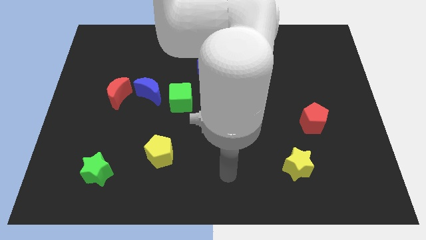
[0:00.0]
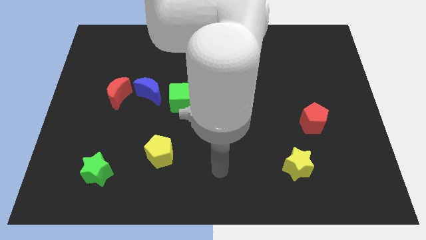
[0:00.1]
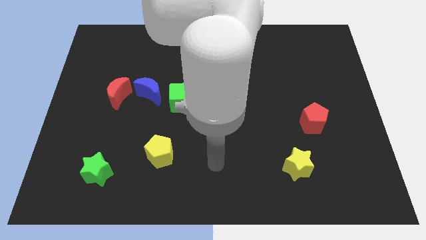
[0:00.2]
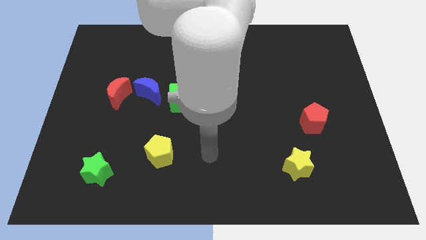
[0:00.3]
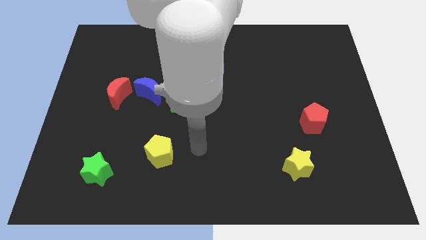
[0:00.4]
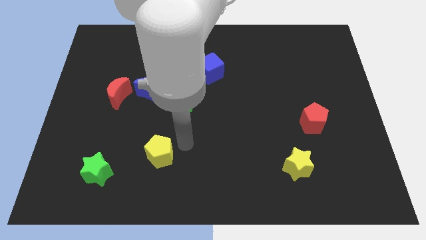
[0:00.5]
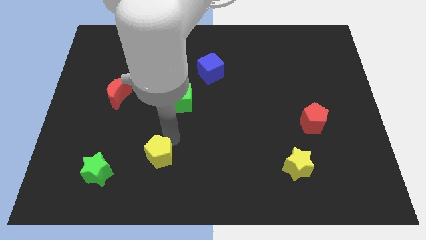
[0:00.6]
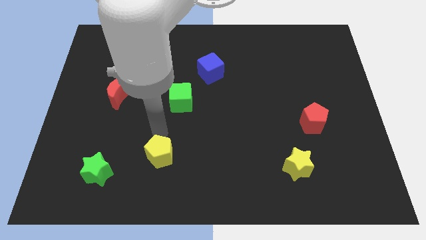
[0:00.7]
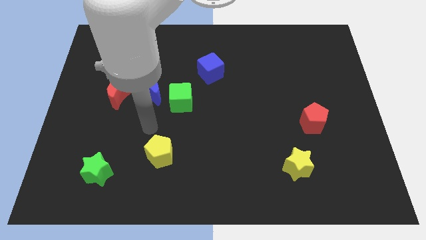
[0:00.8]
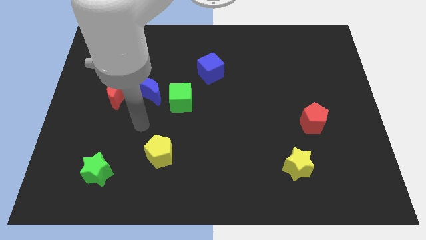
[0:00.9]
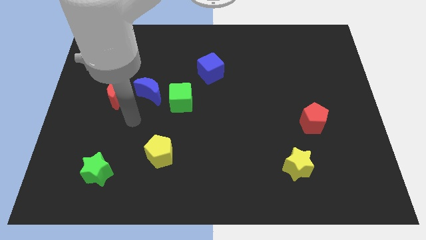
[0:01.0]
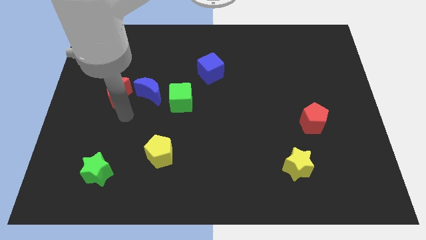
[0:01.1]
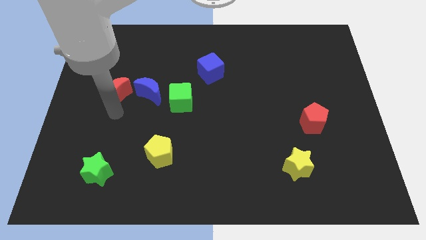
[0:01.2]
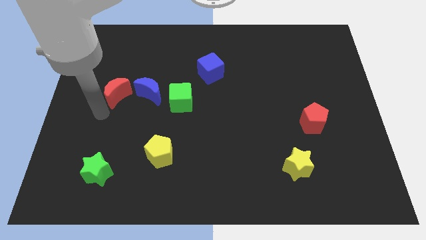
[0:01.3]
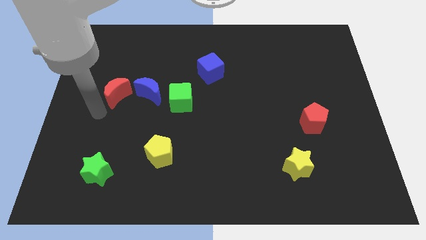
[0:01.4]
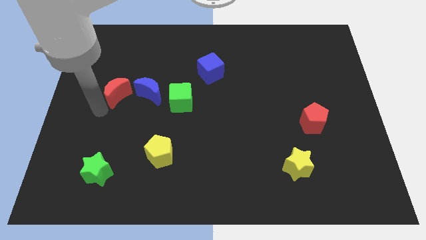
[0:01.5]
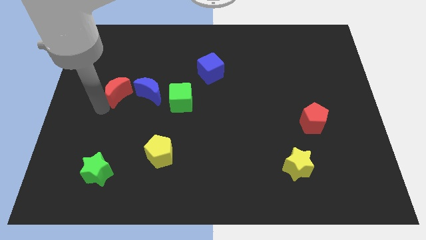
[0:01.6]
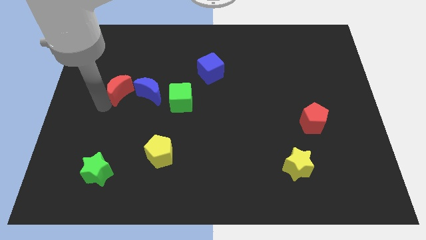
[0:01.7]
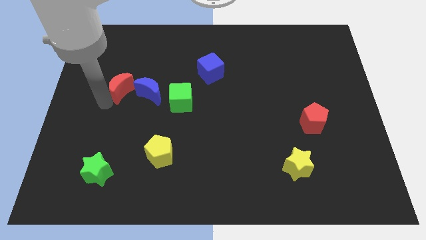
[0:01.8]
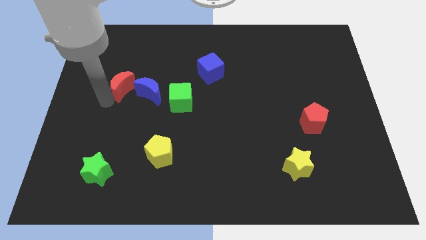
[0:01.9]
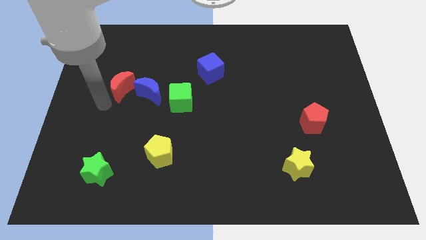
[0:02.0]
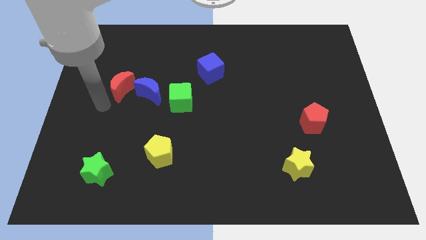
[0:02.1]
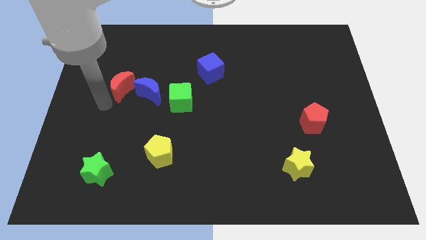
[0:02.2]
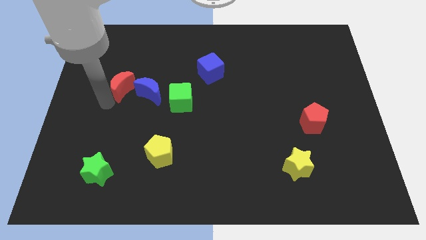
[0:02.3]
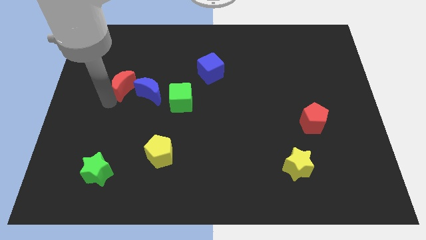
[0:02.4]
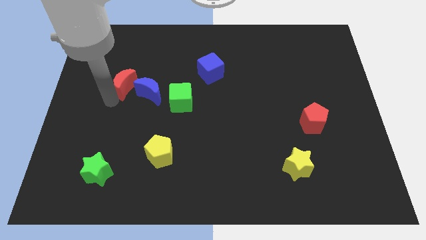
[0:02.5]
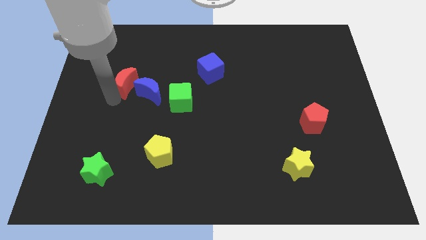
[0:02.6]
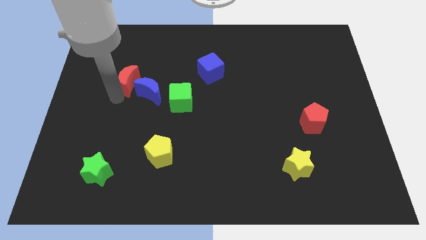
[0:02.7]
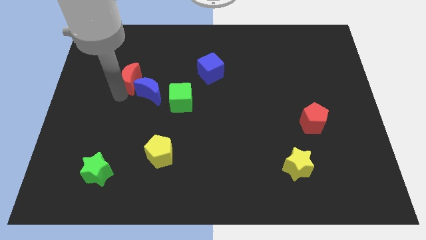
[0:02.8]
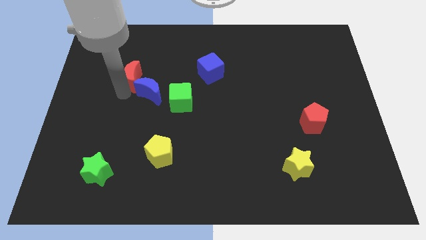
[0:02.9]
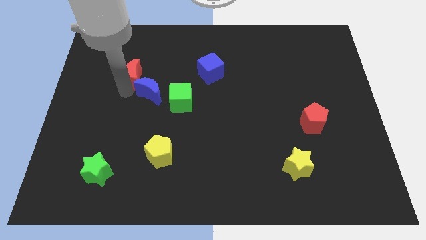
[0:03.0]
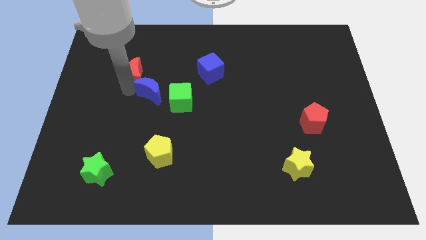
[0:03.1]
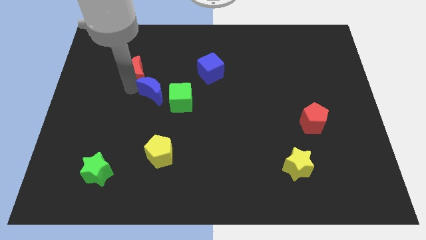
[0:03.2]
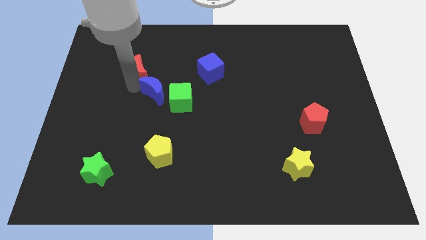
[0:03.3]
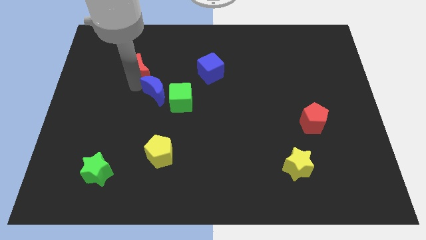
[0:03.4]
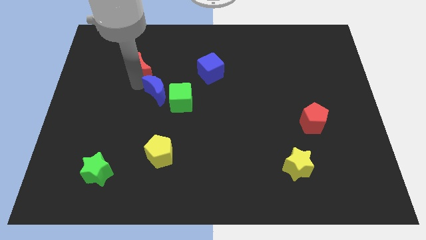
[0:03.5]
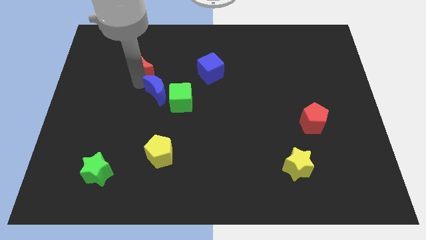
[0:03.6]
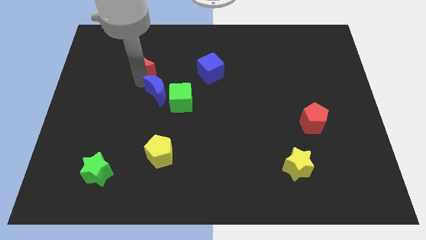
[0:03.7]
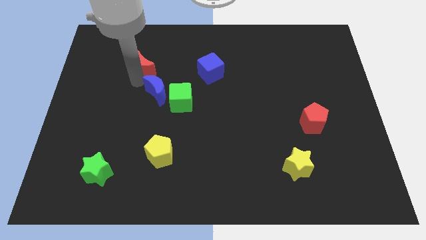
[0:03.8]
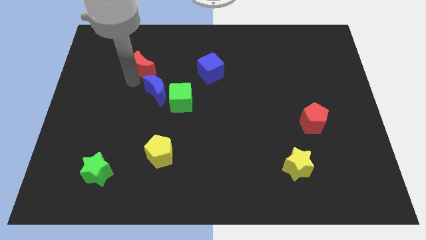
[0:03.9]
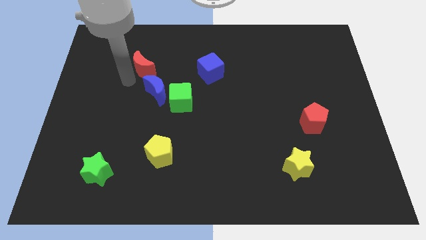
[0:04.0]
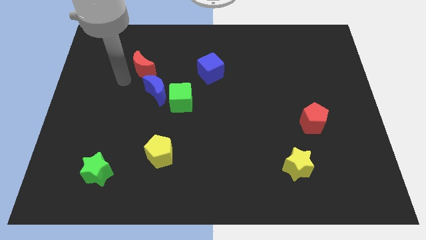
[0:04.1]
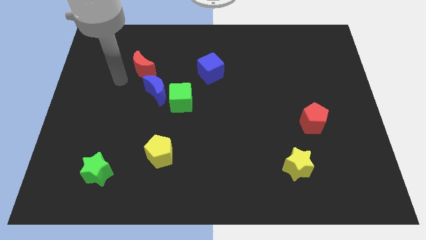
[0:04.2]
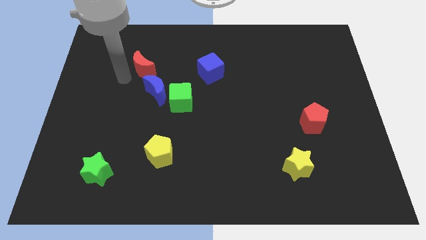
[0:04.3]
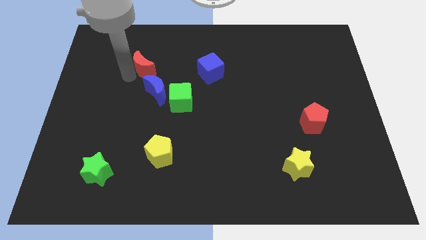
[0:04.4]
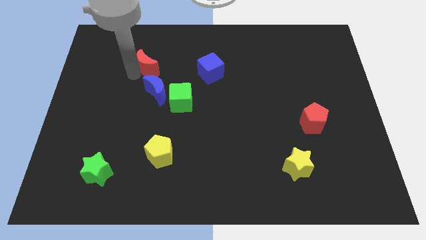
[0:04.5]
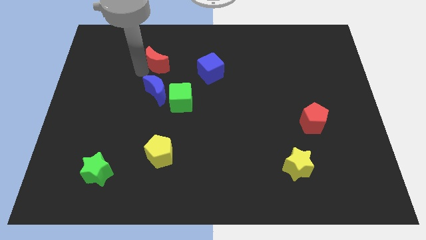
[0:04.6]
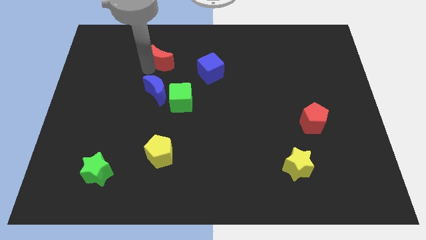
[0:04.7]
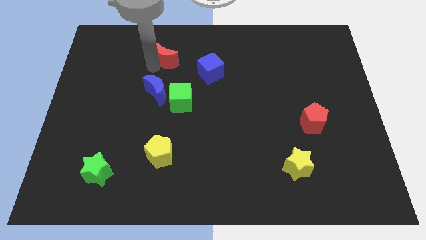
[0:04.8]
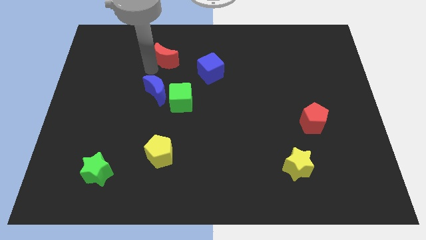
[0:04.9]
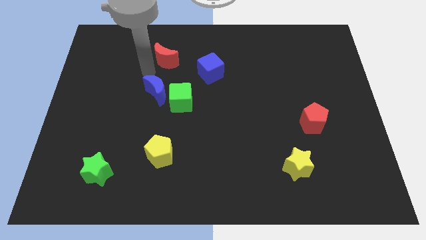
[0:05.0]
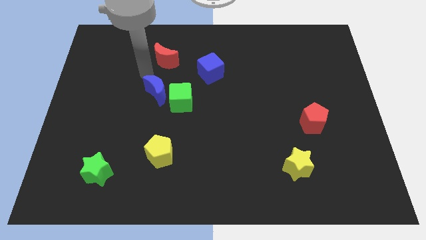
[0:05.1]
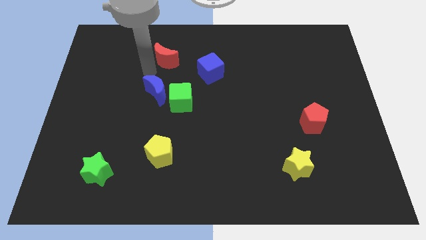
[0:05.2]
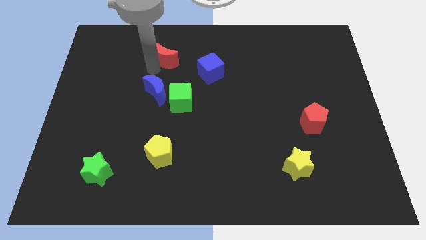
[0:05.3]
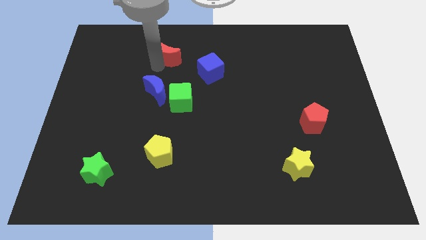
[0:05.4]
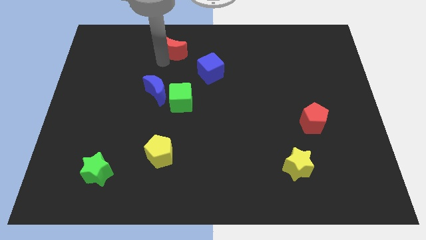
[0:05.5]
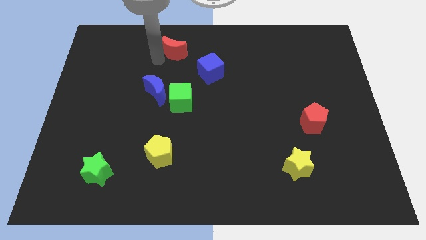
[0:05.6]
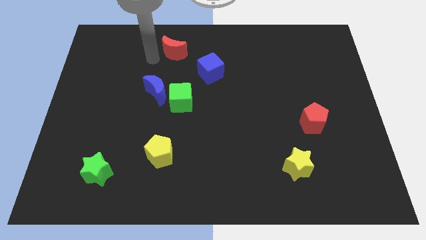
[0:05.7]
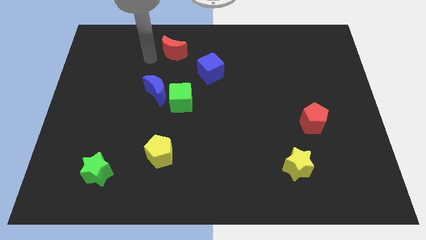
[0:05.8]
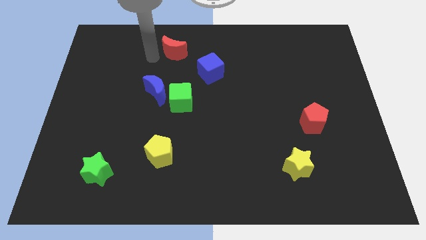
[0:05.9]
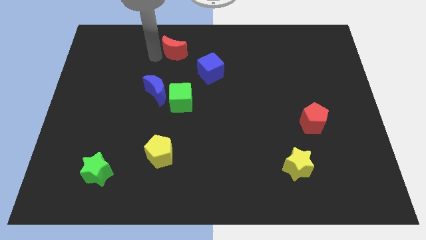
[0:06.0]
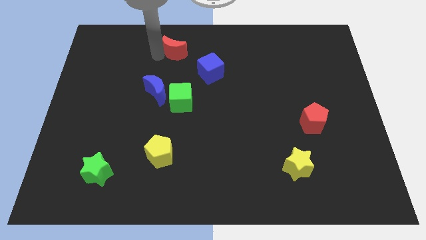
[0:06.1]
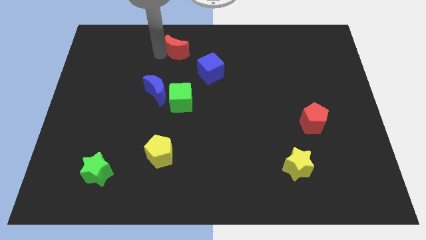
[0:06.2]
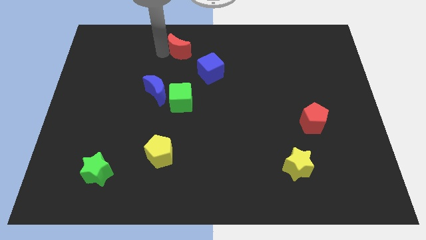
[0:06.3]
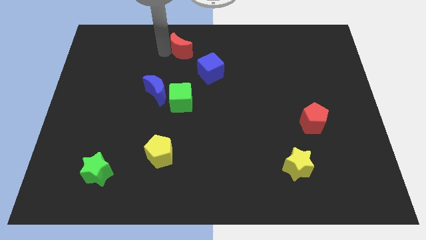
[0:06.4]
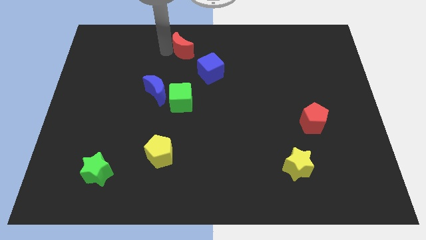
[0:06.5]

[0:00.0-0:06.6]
move the red moon to the top side
